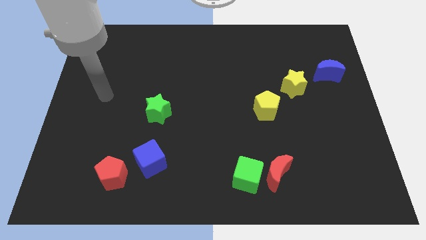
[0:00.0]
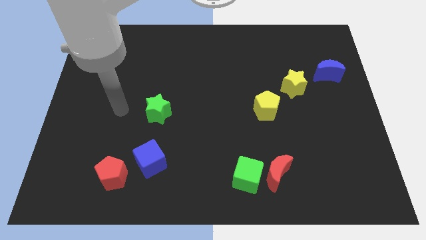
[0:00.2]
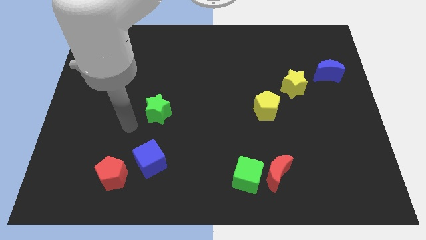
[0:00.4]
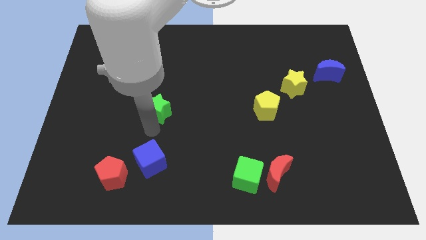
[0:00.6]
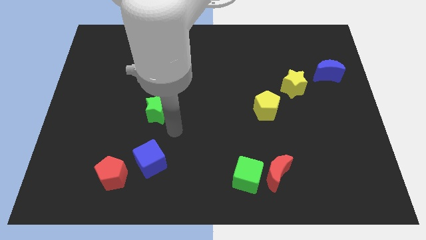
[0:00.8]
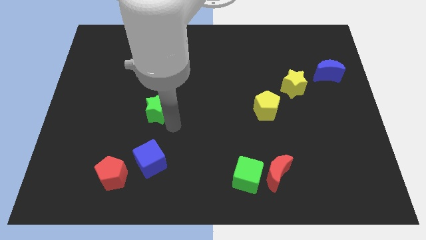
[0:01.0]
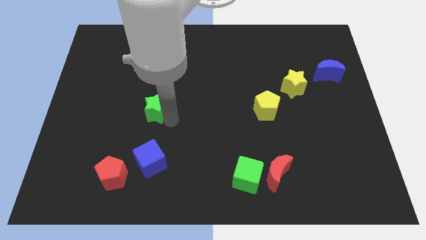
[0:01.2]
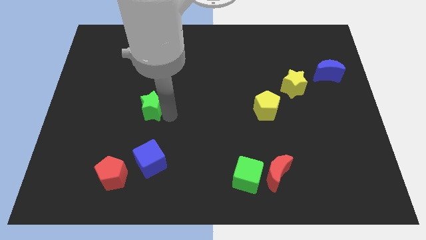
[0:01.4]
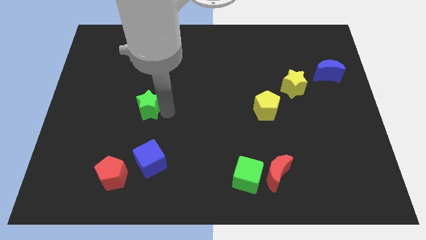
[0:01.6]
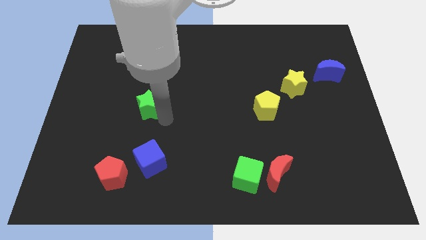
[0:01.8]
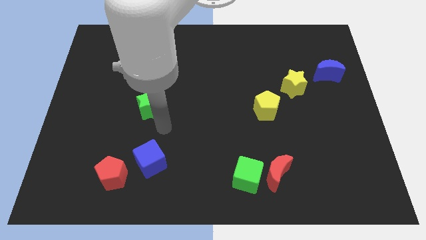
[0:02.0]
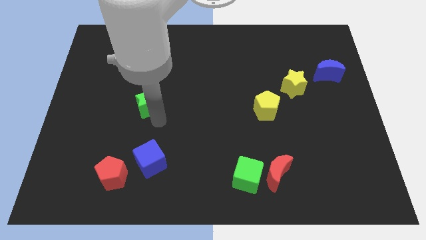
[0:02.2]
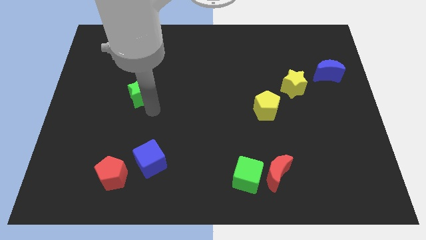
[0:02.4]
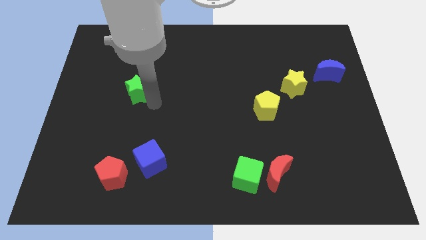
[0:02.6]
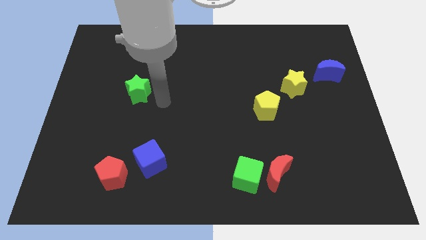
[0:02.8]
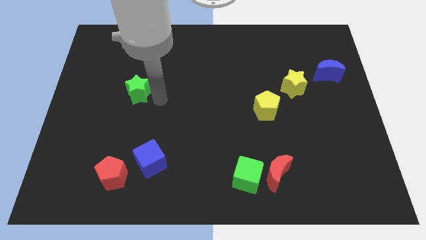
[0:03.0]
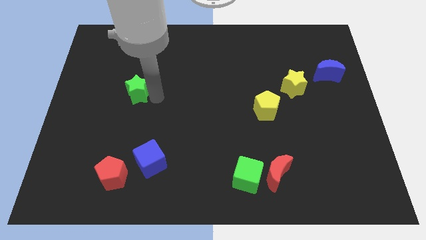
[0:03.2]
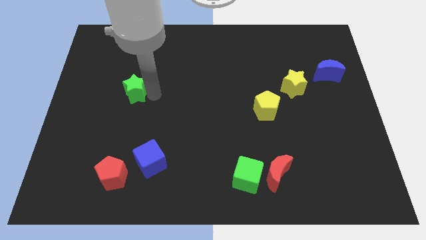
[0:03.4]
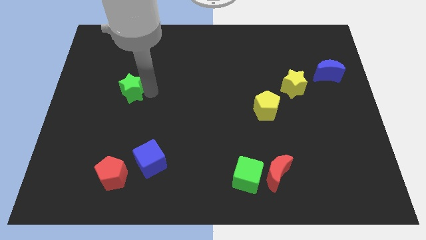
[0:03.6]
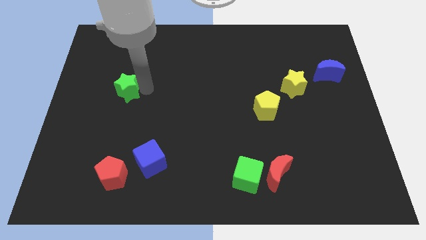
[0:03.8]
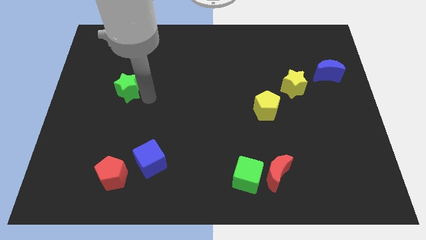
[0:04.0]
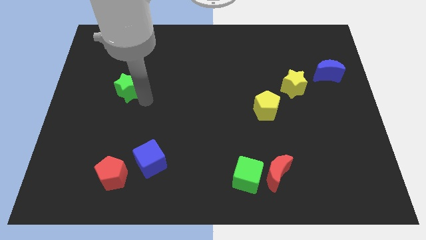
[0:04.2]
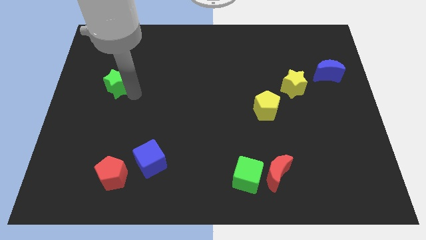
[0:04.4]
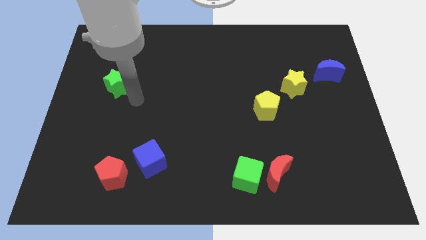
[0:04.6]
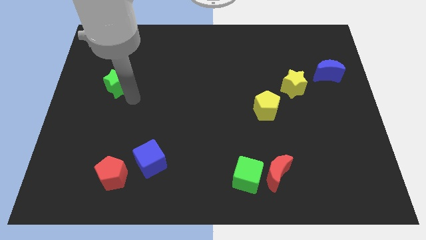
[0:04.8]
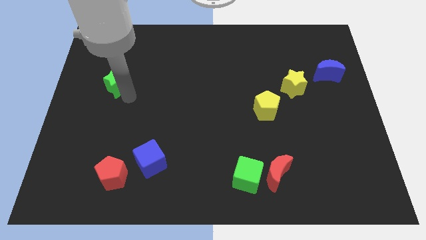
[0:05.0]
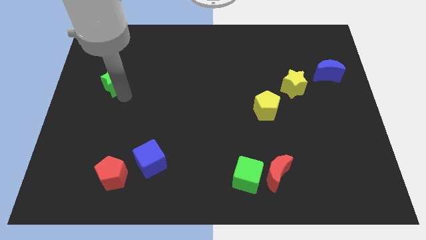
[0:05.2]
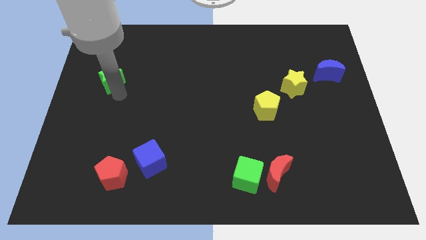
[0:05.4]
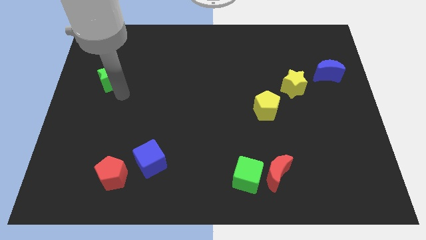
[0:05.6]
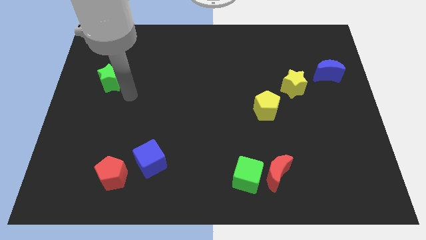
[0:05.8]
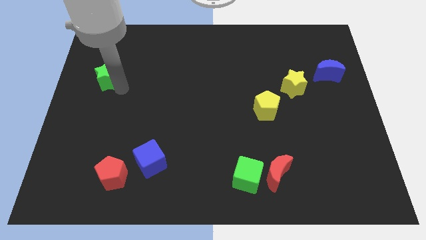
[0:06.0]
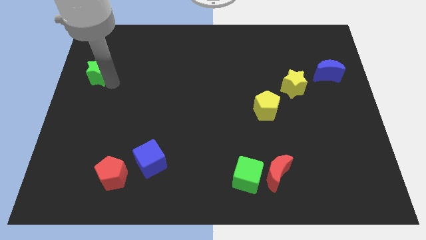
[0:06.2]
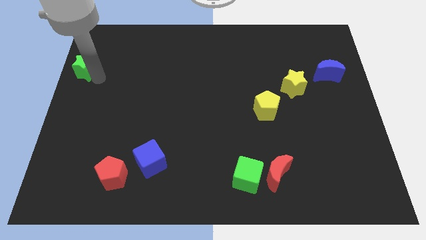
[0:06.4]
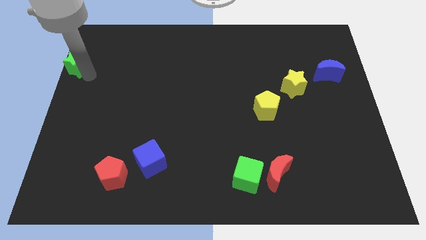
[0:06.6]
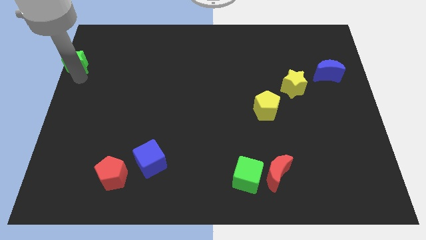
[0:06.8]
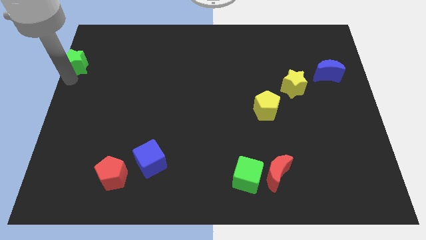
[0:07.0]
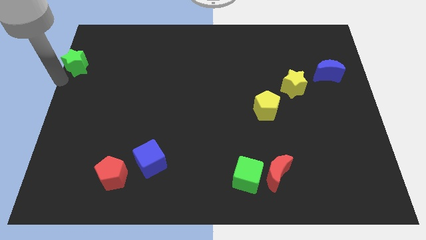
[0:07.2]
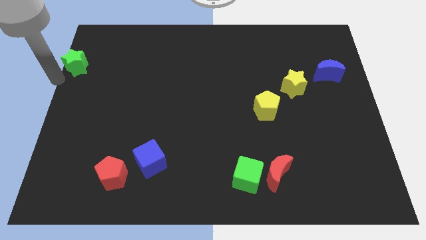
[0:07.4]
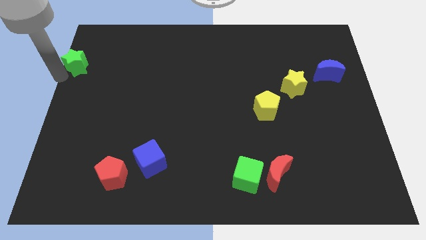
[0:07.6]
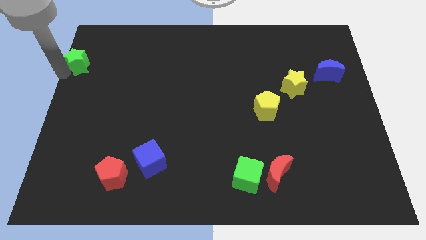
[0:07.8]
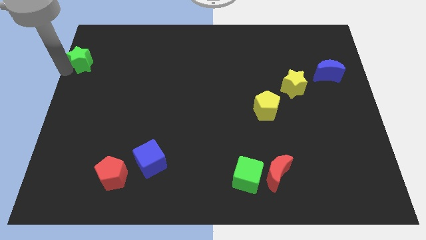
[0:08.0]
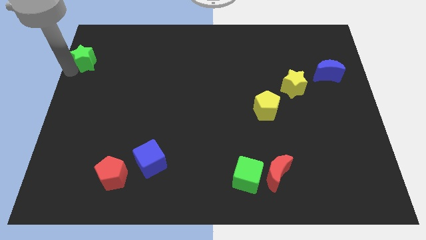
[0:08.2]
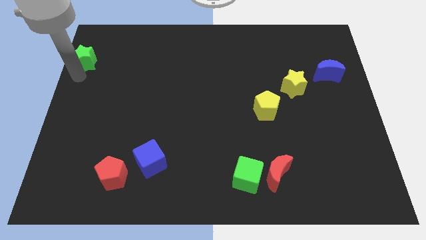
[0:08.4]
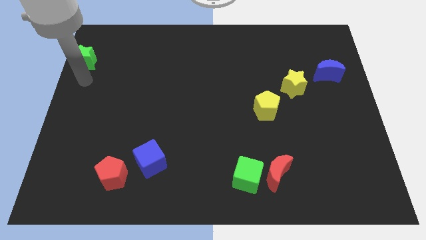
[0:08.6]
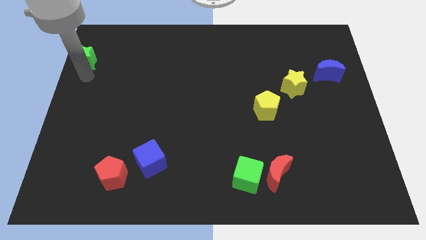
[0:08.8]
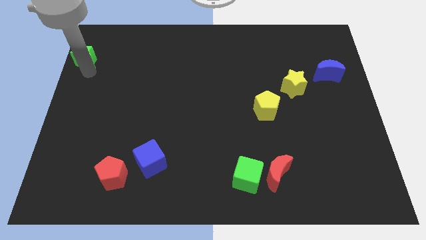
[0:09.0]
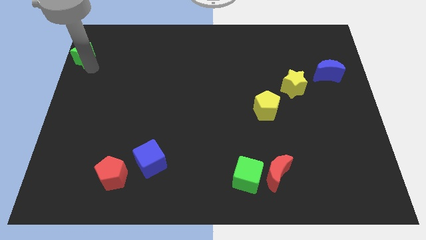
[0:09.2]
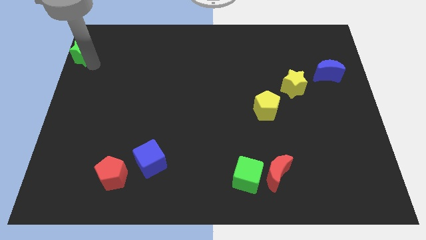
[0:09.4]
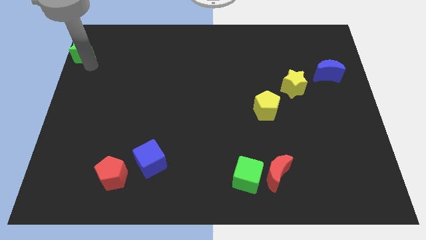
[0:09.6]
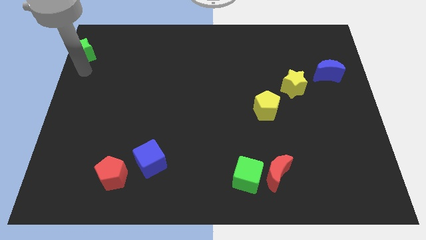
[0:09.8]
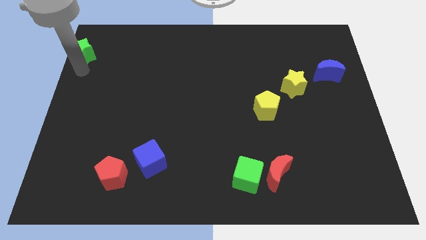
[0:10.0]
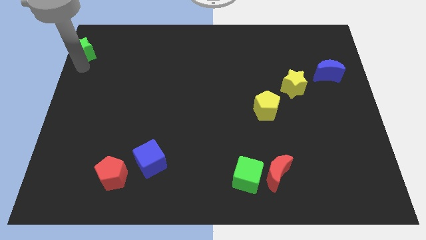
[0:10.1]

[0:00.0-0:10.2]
push the green star to the top left corner

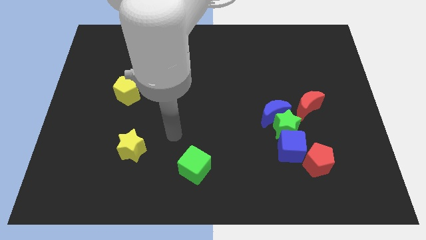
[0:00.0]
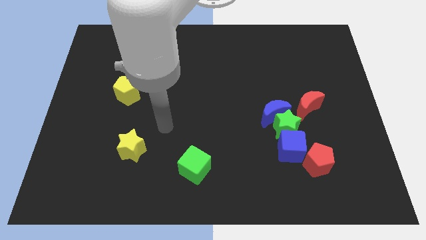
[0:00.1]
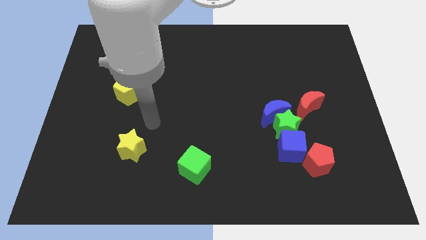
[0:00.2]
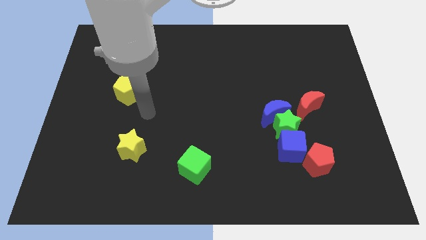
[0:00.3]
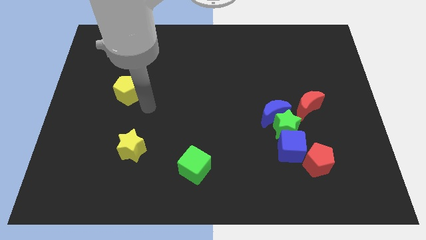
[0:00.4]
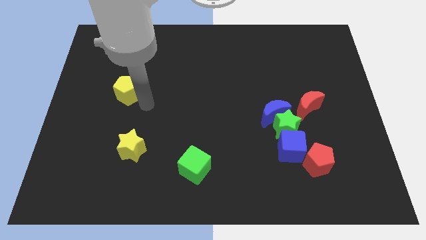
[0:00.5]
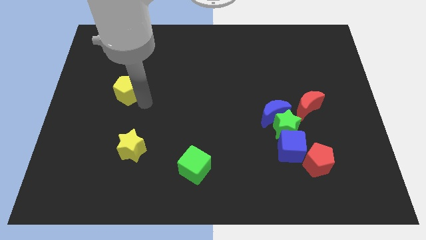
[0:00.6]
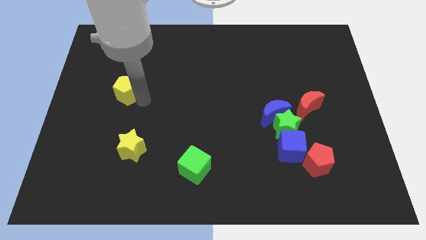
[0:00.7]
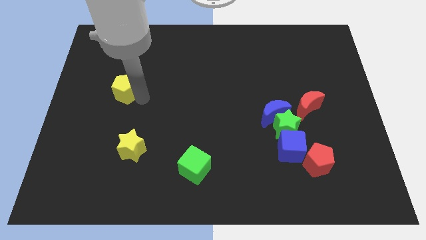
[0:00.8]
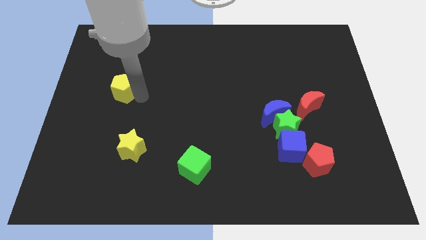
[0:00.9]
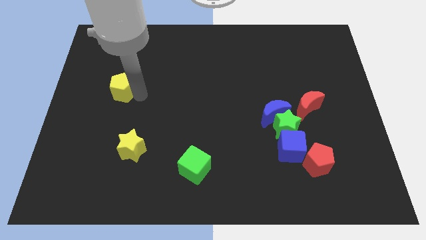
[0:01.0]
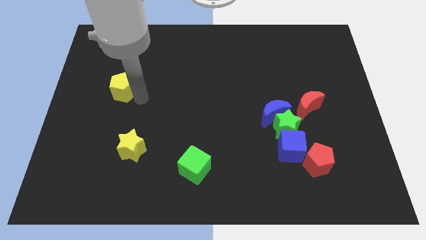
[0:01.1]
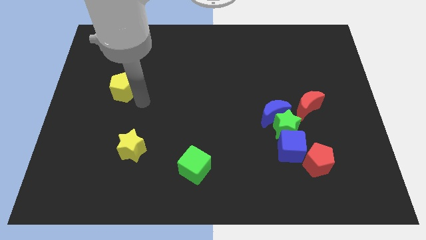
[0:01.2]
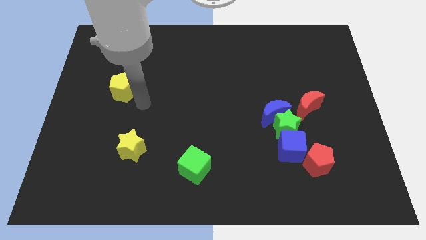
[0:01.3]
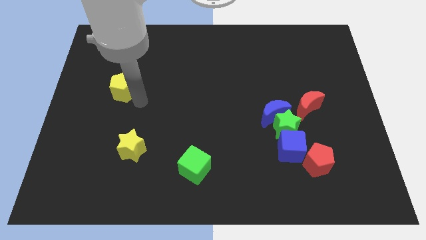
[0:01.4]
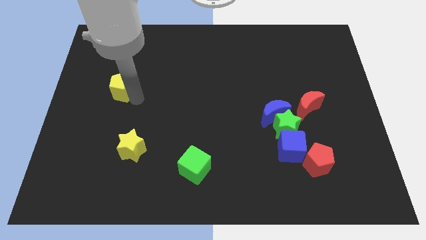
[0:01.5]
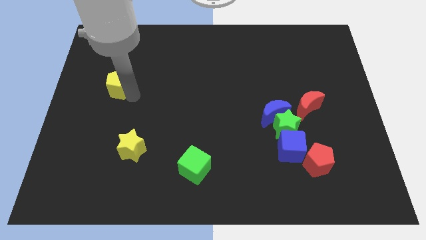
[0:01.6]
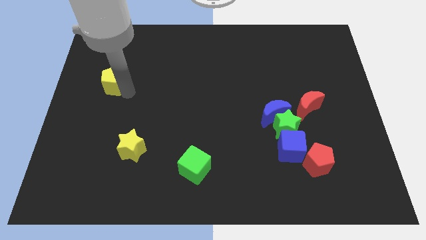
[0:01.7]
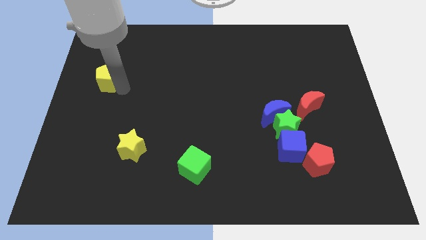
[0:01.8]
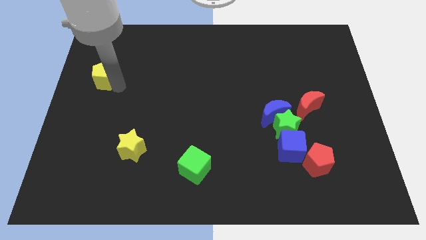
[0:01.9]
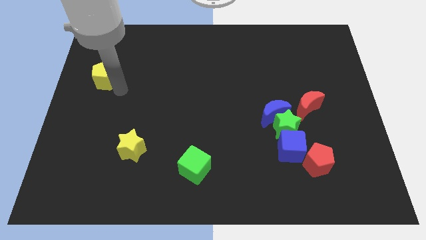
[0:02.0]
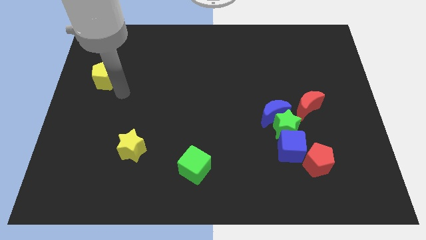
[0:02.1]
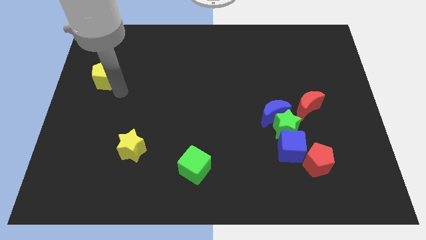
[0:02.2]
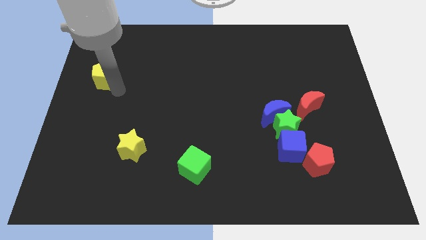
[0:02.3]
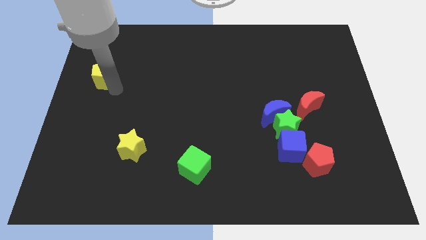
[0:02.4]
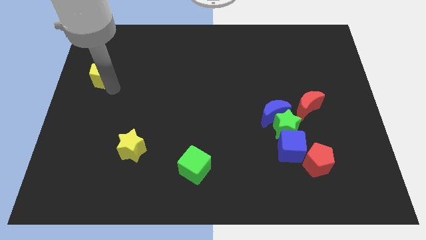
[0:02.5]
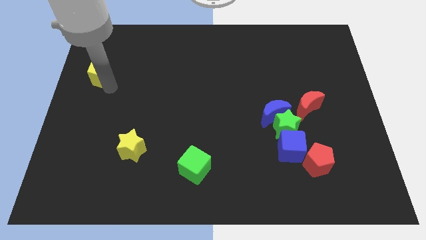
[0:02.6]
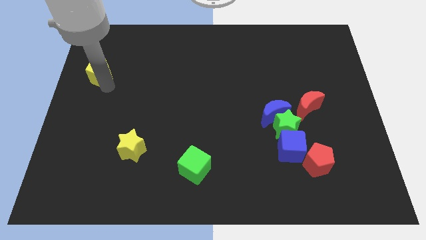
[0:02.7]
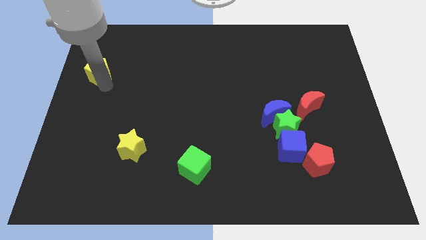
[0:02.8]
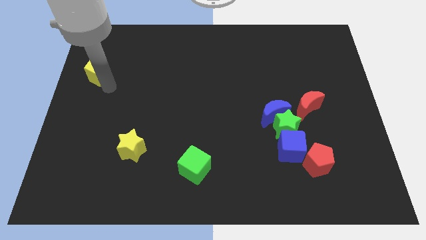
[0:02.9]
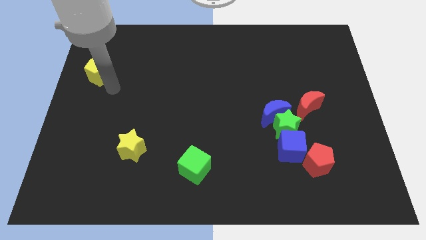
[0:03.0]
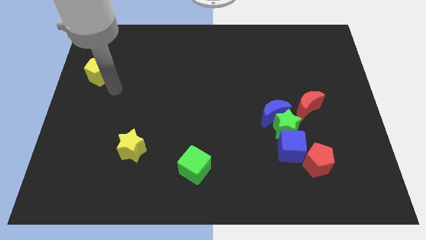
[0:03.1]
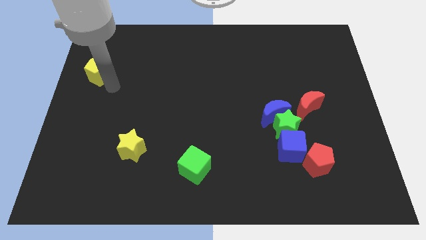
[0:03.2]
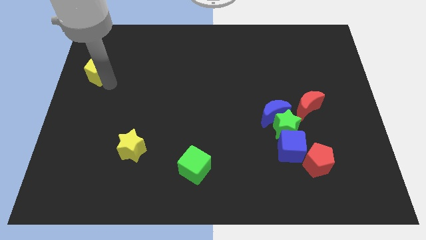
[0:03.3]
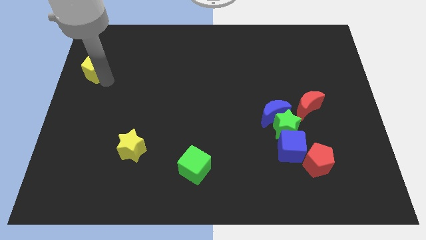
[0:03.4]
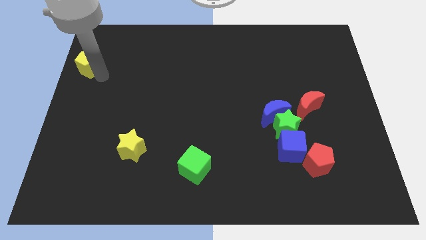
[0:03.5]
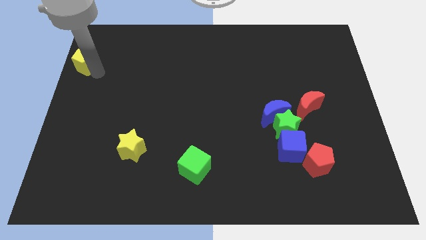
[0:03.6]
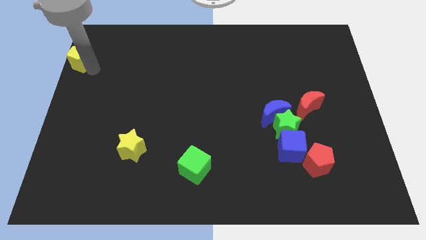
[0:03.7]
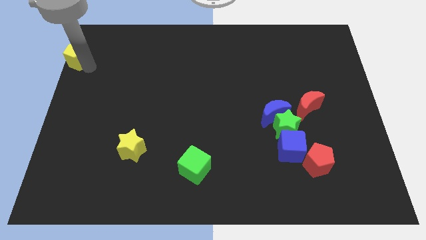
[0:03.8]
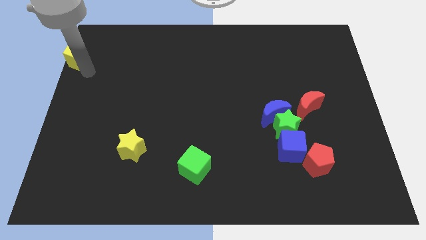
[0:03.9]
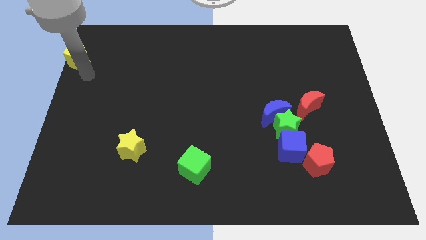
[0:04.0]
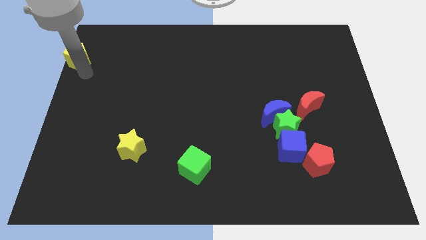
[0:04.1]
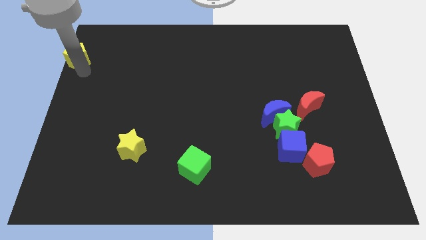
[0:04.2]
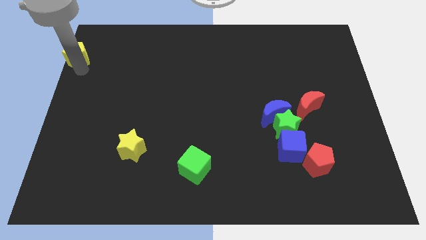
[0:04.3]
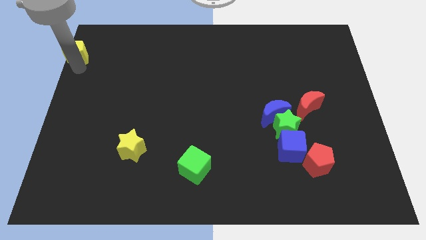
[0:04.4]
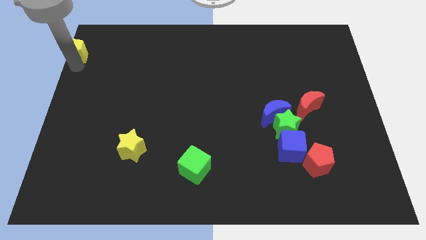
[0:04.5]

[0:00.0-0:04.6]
put the yellow pentagon to the top left corner
